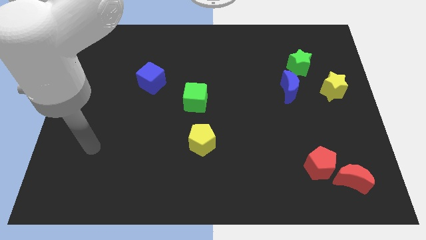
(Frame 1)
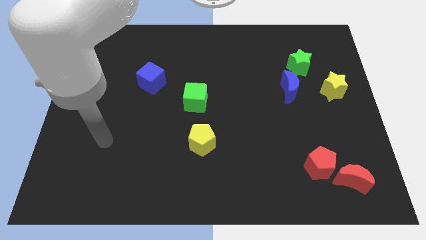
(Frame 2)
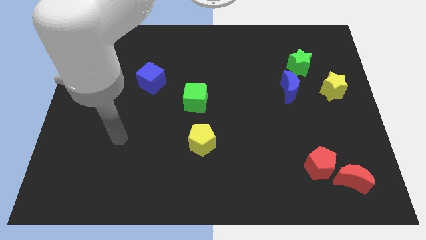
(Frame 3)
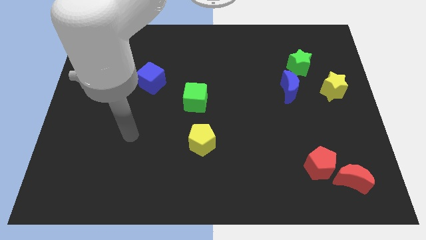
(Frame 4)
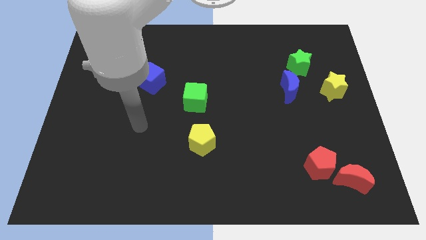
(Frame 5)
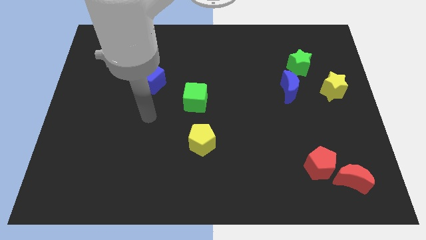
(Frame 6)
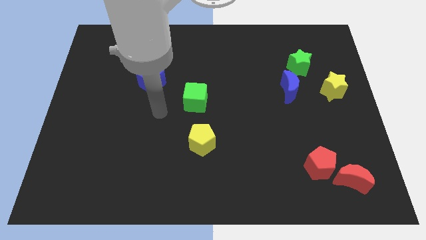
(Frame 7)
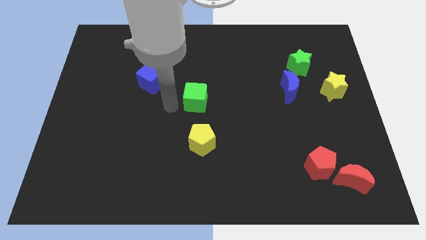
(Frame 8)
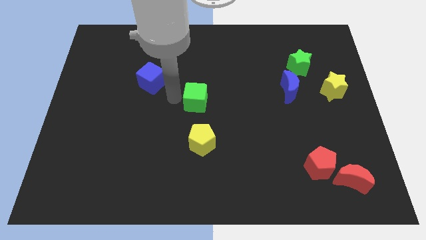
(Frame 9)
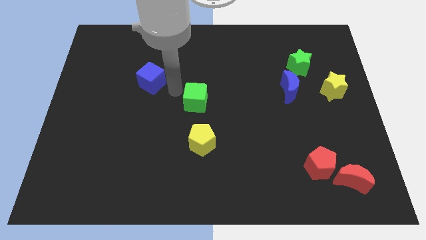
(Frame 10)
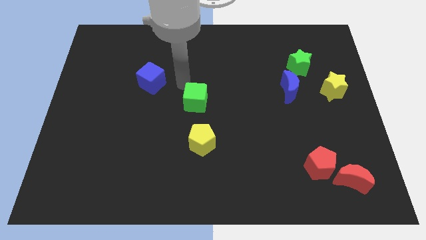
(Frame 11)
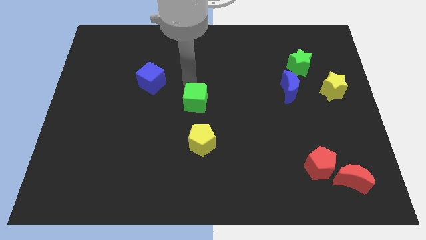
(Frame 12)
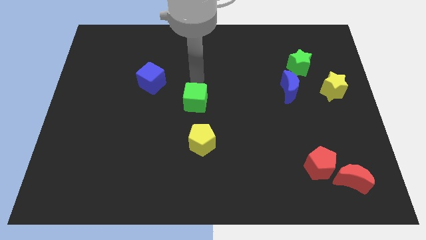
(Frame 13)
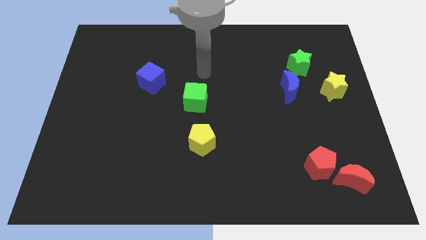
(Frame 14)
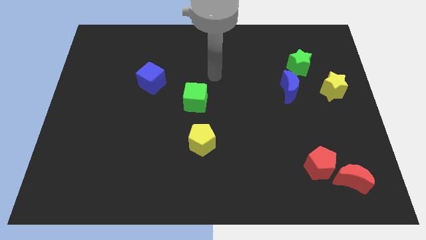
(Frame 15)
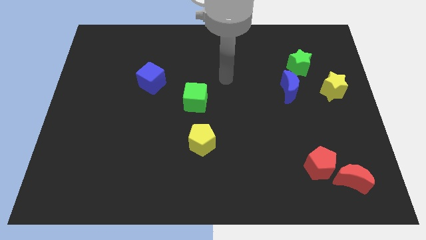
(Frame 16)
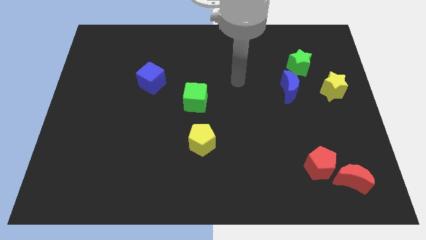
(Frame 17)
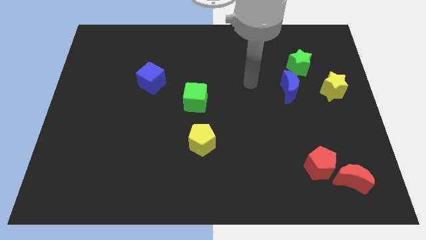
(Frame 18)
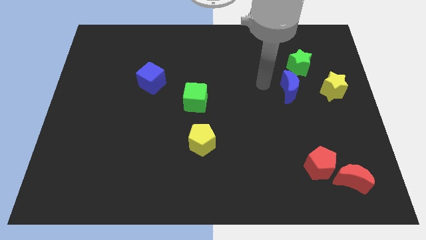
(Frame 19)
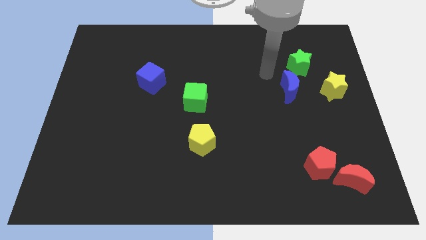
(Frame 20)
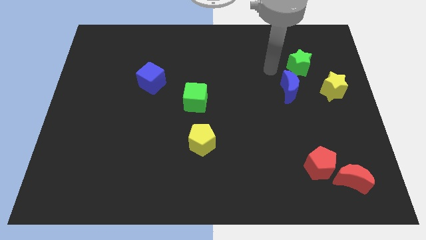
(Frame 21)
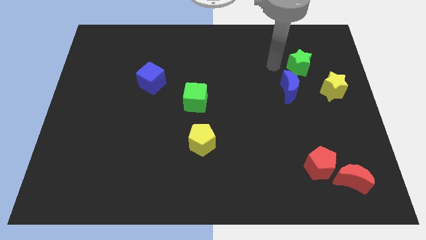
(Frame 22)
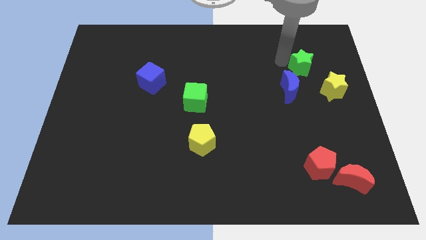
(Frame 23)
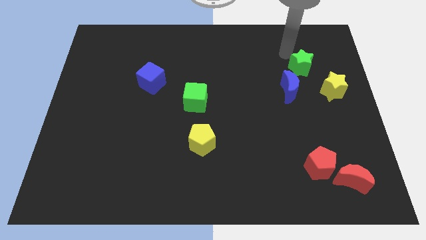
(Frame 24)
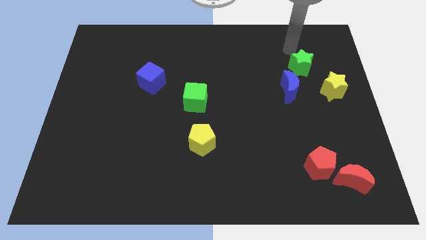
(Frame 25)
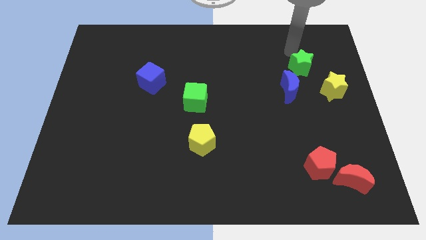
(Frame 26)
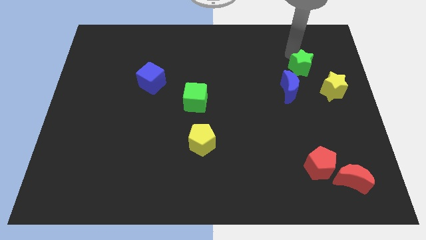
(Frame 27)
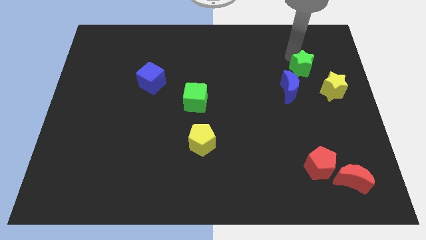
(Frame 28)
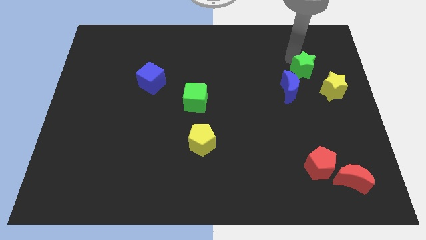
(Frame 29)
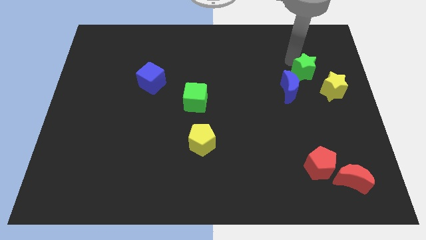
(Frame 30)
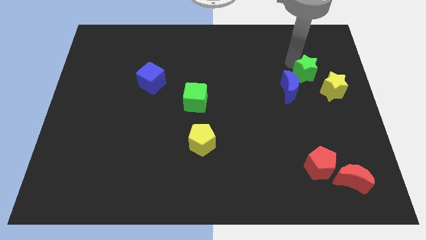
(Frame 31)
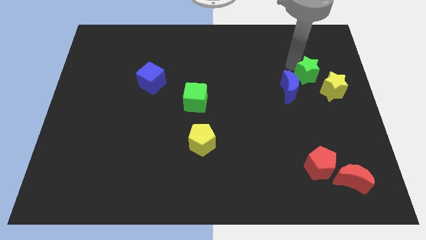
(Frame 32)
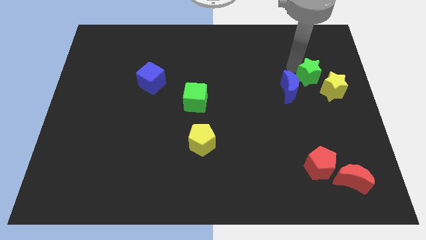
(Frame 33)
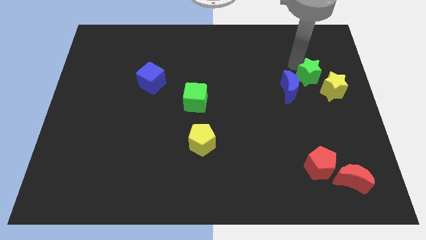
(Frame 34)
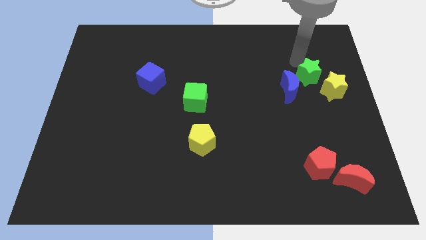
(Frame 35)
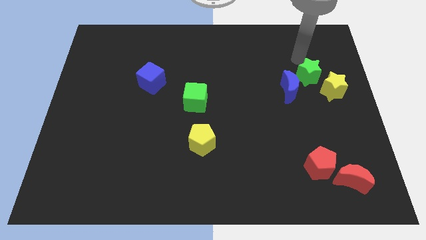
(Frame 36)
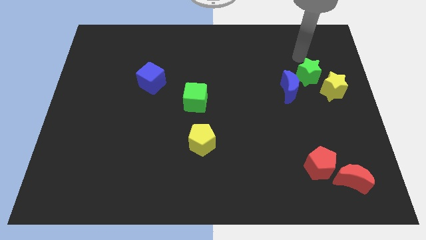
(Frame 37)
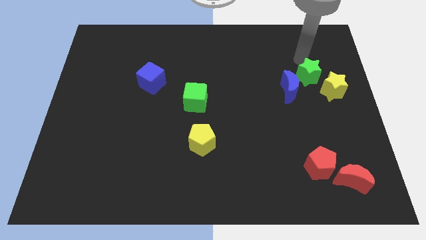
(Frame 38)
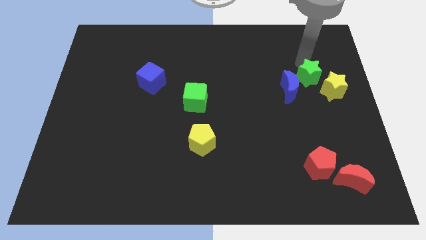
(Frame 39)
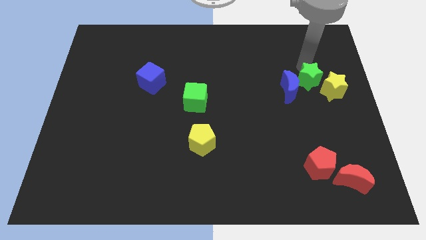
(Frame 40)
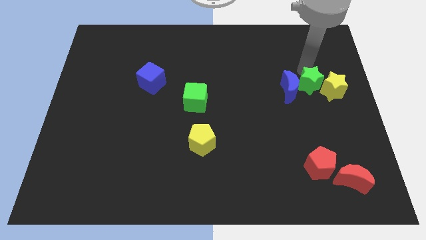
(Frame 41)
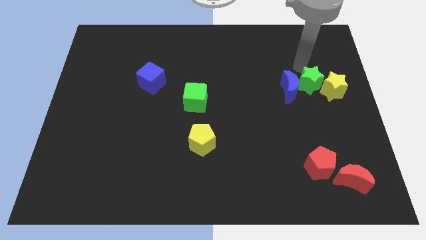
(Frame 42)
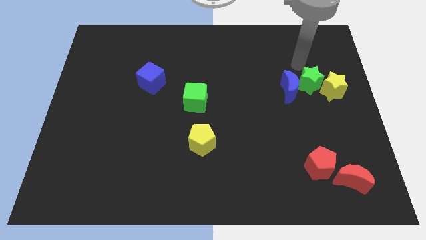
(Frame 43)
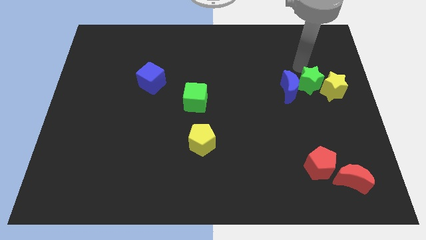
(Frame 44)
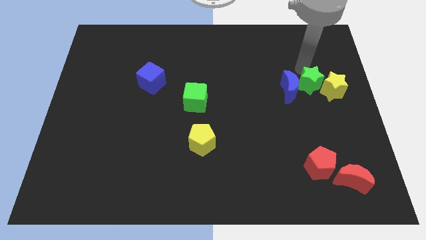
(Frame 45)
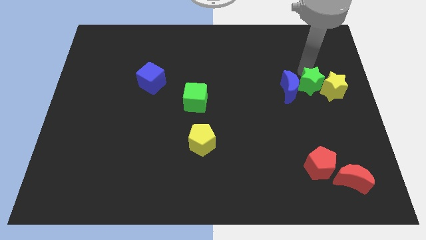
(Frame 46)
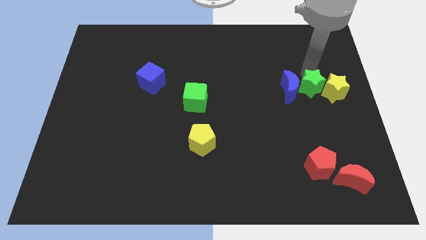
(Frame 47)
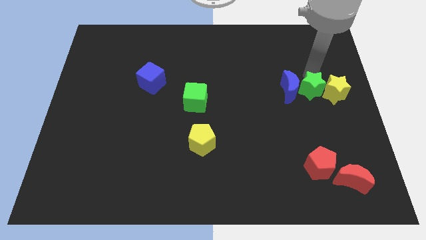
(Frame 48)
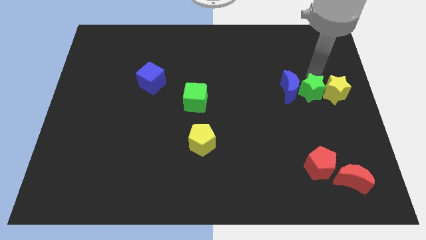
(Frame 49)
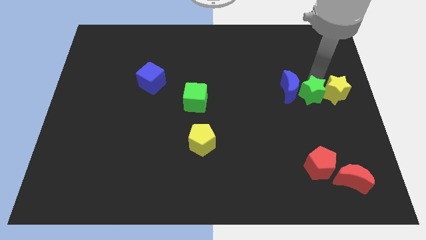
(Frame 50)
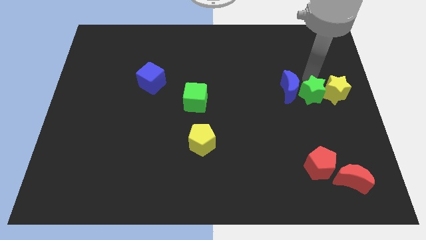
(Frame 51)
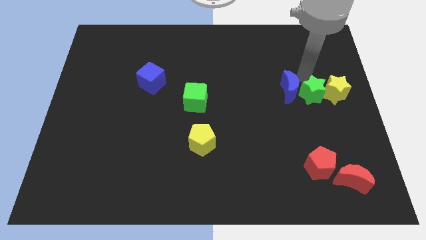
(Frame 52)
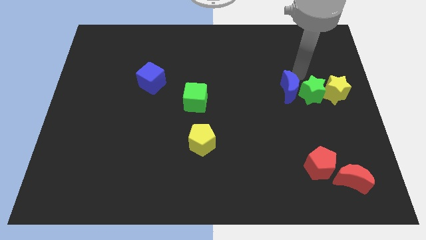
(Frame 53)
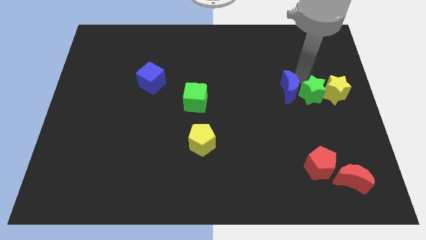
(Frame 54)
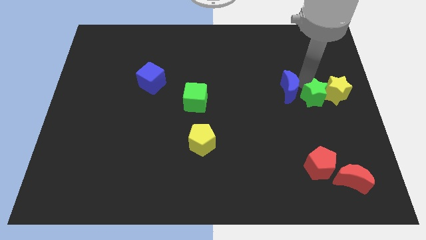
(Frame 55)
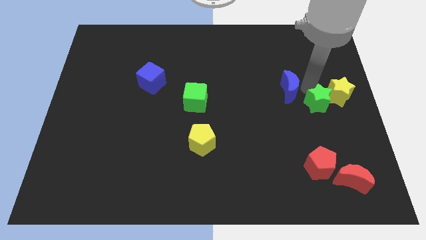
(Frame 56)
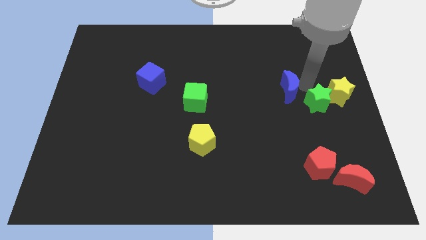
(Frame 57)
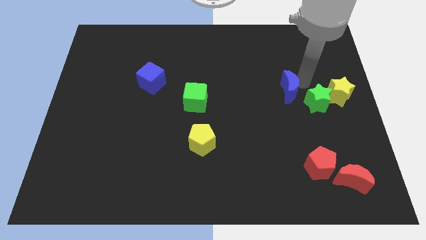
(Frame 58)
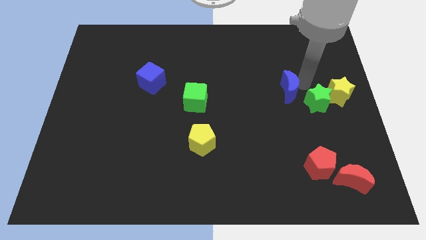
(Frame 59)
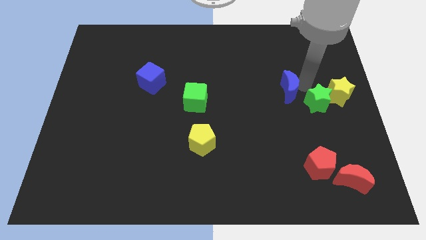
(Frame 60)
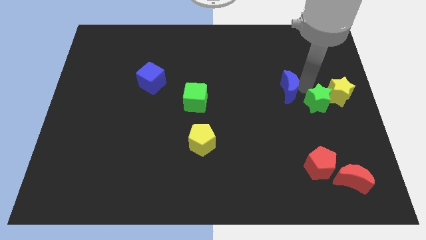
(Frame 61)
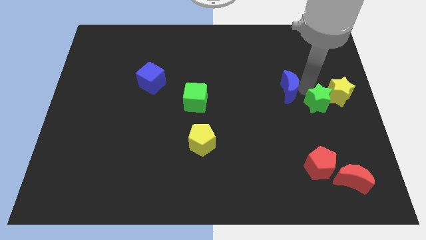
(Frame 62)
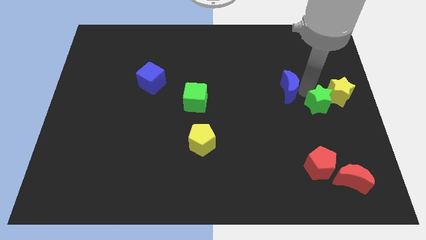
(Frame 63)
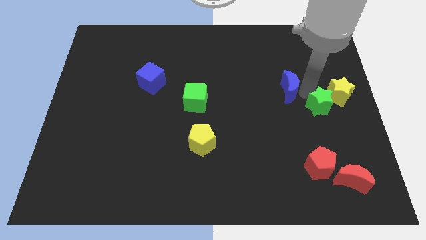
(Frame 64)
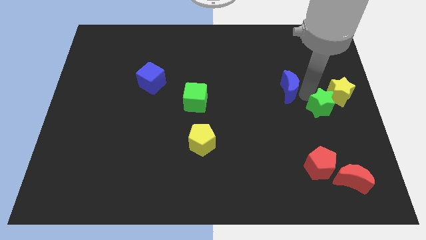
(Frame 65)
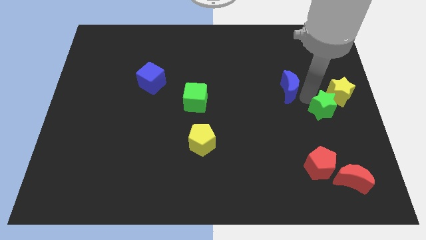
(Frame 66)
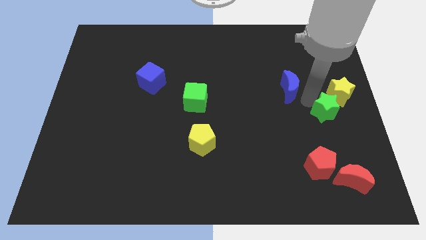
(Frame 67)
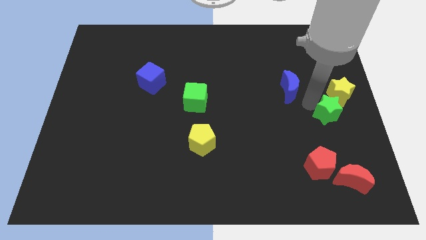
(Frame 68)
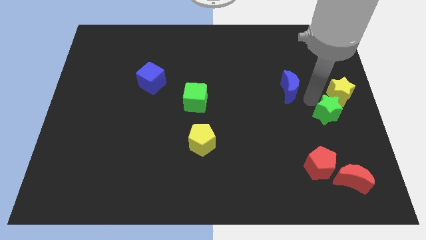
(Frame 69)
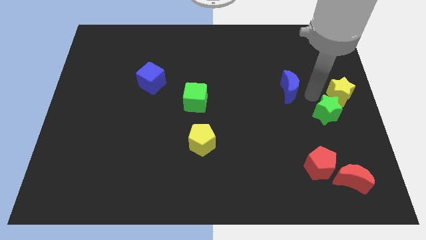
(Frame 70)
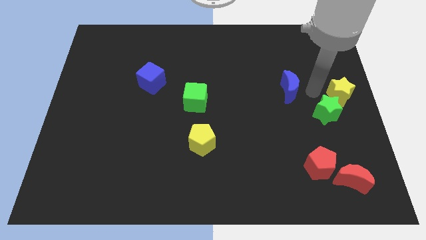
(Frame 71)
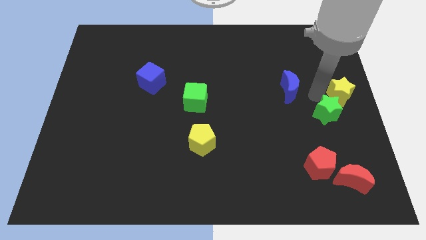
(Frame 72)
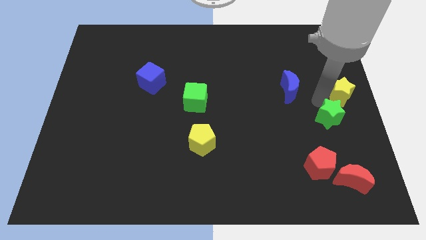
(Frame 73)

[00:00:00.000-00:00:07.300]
put the green star above the red moon
